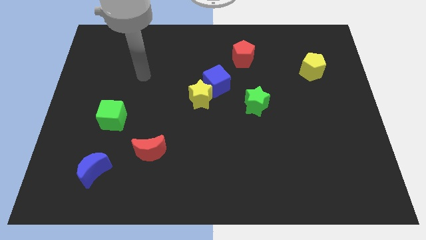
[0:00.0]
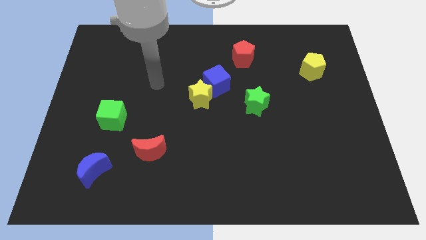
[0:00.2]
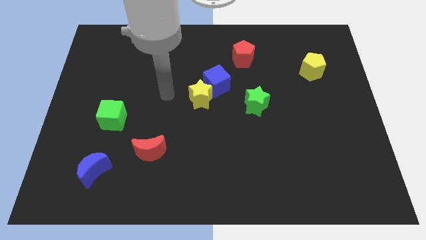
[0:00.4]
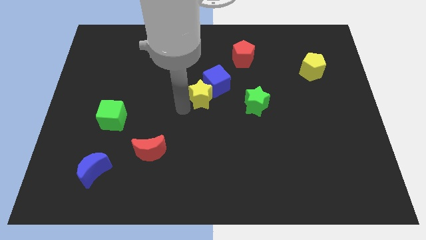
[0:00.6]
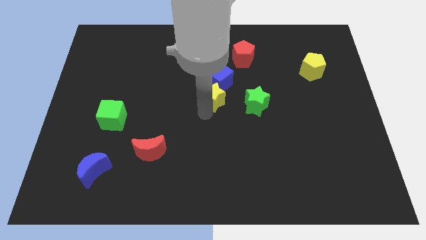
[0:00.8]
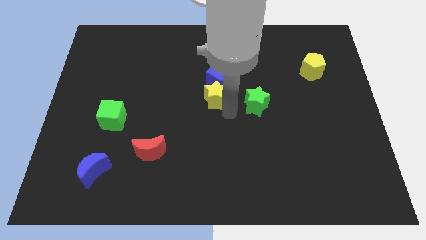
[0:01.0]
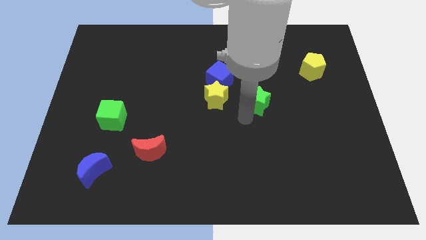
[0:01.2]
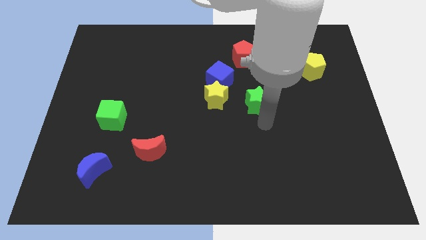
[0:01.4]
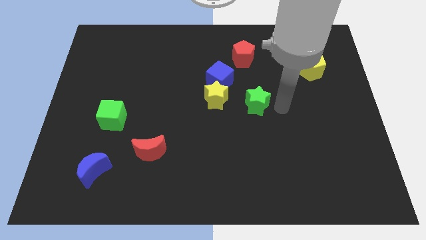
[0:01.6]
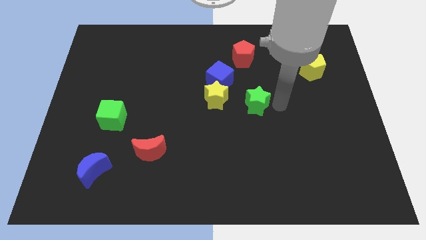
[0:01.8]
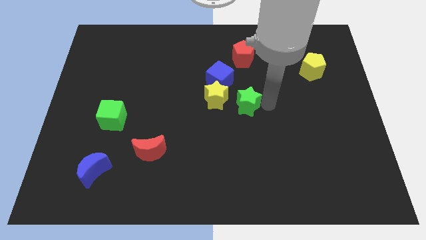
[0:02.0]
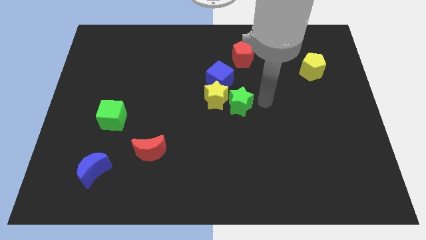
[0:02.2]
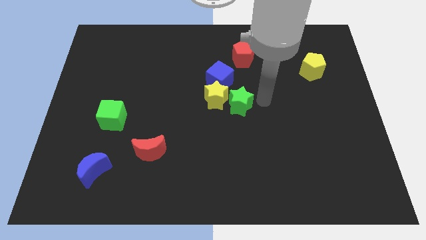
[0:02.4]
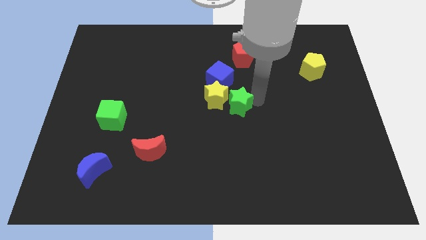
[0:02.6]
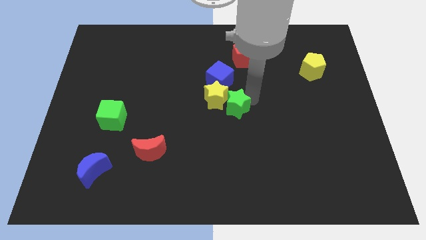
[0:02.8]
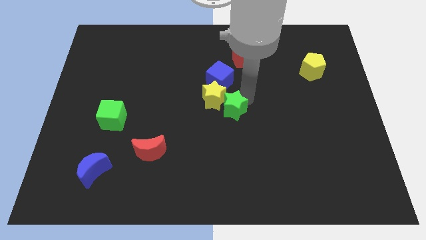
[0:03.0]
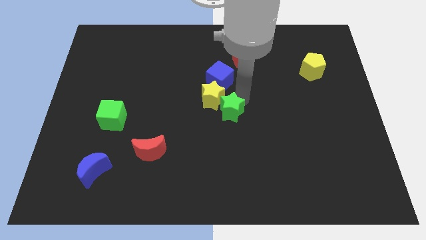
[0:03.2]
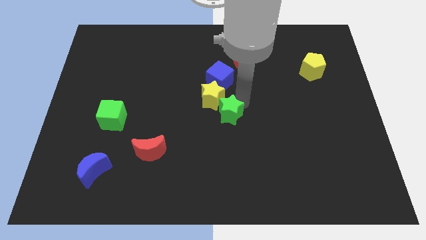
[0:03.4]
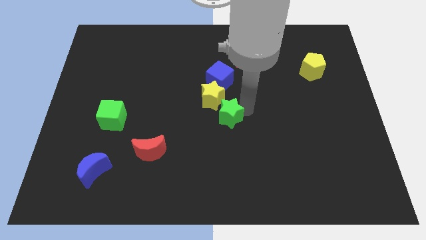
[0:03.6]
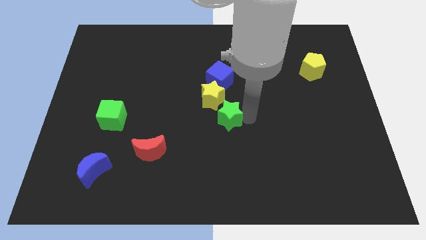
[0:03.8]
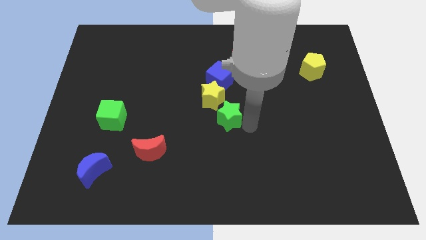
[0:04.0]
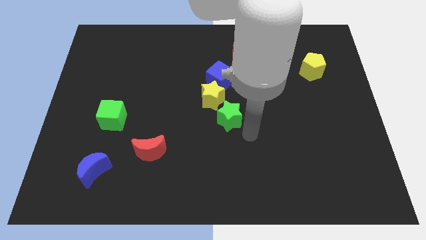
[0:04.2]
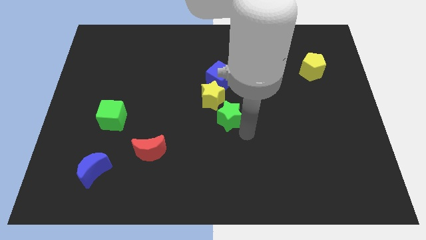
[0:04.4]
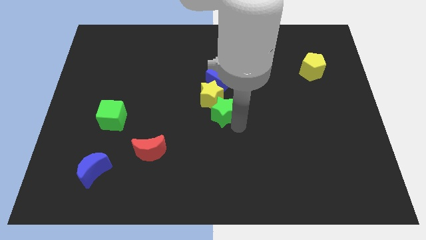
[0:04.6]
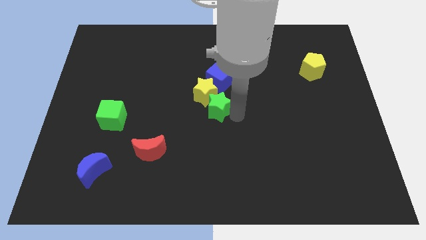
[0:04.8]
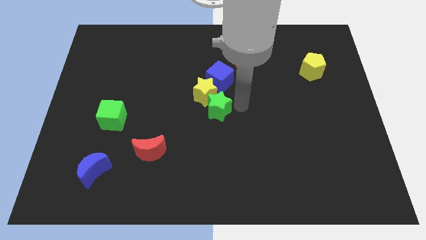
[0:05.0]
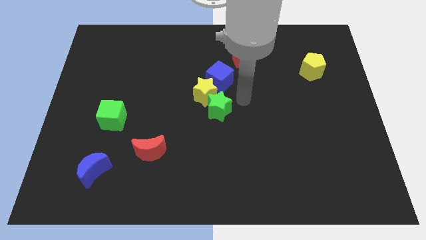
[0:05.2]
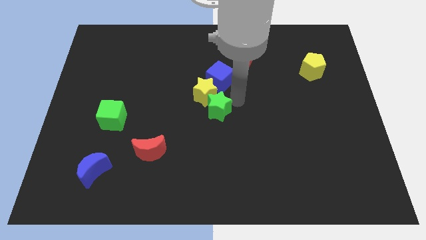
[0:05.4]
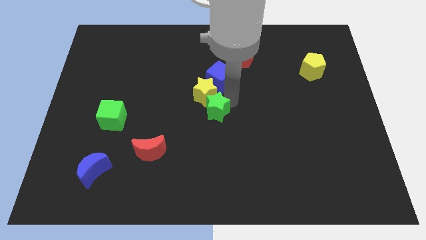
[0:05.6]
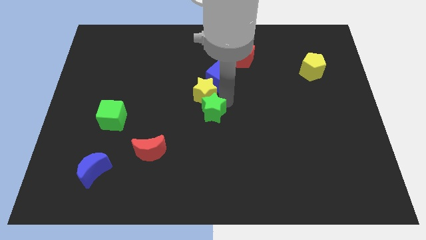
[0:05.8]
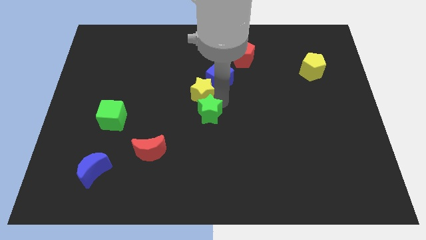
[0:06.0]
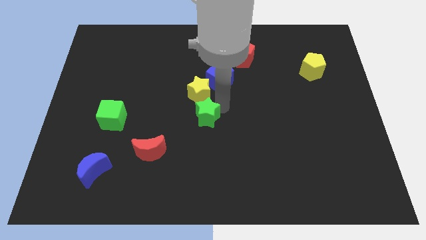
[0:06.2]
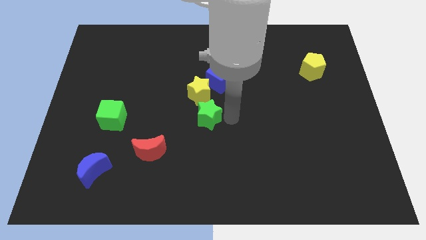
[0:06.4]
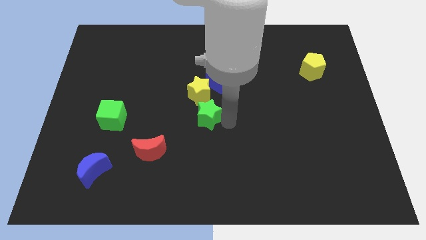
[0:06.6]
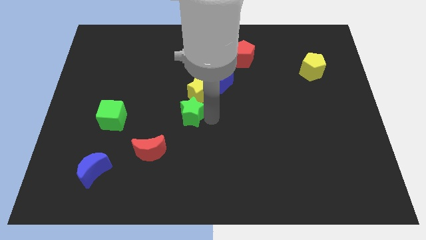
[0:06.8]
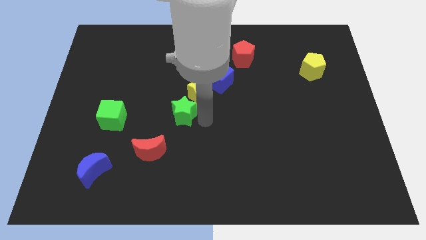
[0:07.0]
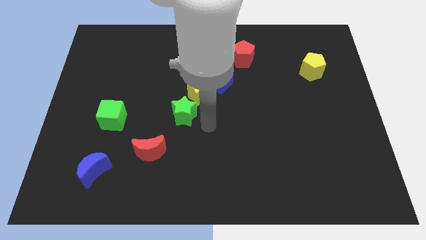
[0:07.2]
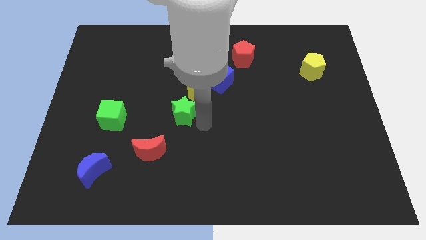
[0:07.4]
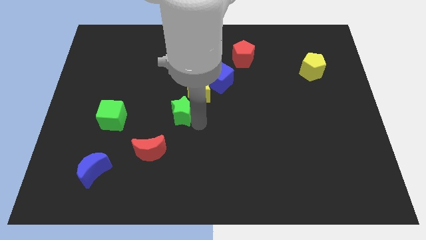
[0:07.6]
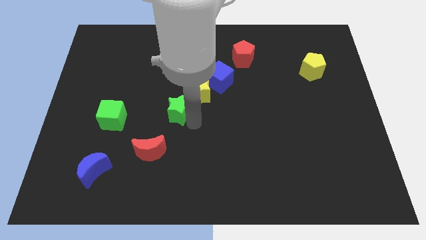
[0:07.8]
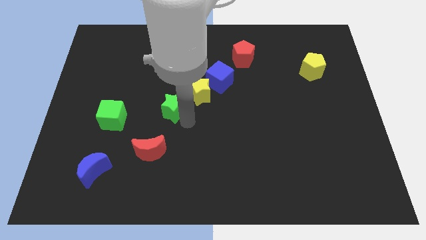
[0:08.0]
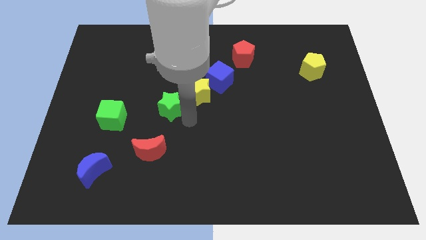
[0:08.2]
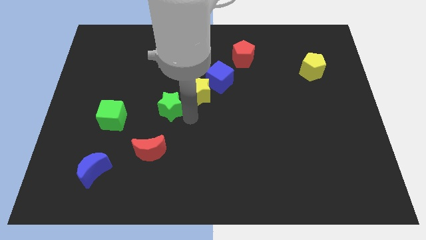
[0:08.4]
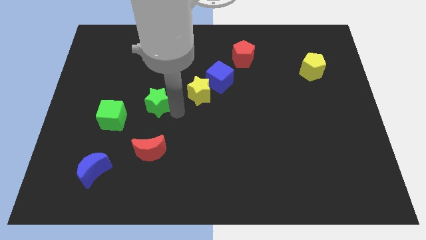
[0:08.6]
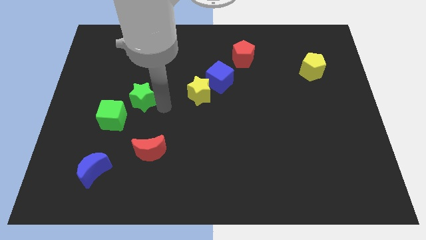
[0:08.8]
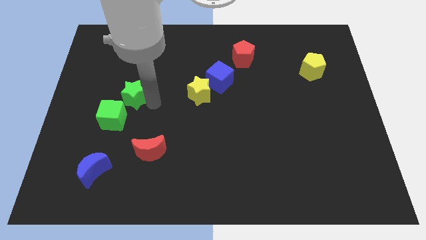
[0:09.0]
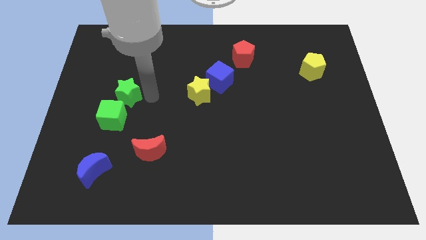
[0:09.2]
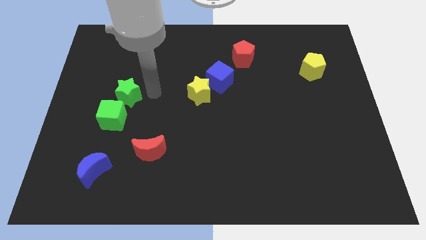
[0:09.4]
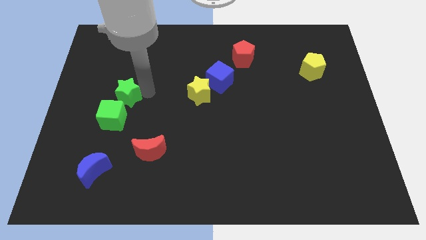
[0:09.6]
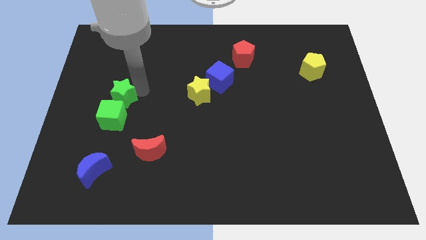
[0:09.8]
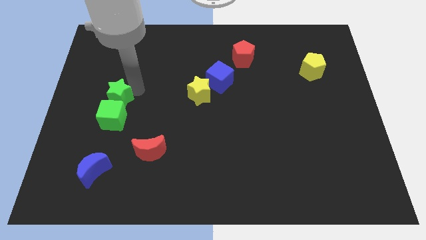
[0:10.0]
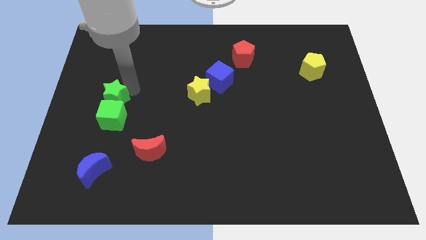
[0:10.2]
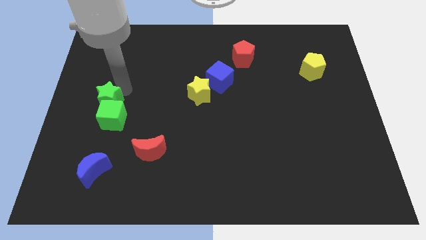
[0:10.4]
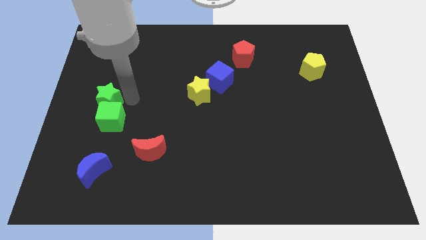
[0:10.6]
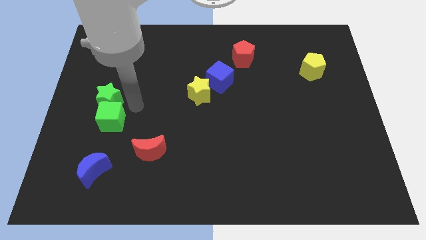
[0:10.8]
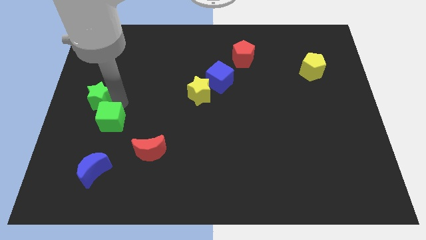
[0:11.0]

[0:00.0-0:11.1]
push the green star to the center left

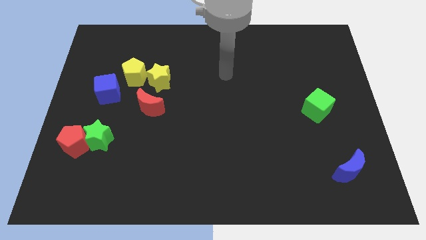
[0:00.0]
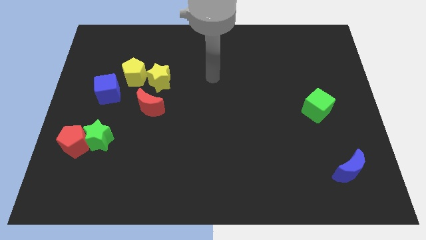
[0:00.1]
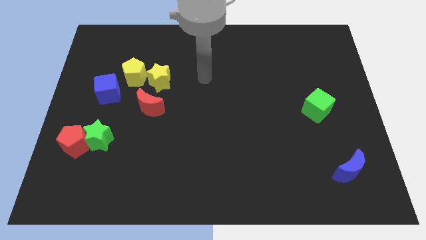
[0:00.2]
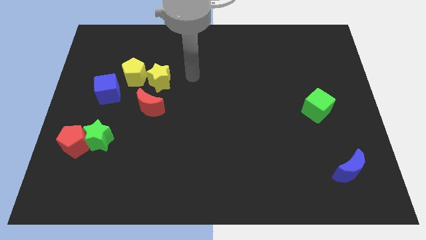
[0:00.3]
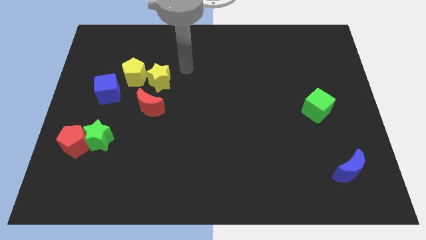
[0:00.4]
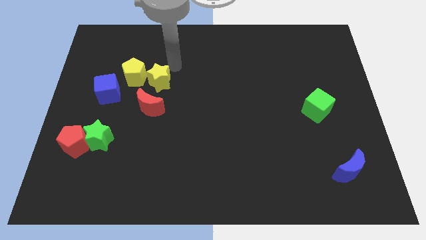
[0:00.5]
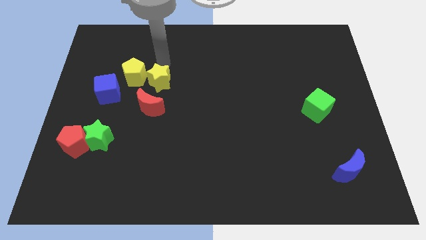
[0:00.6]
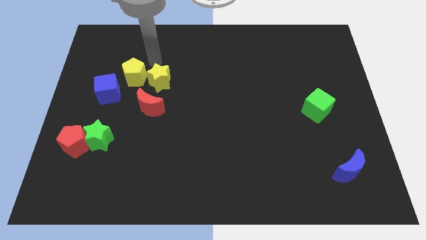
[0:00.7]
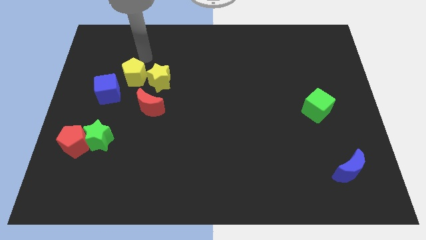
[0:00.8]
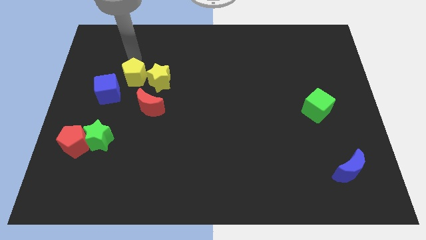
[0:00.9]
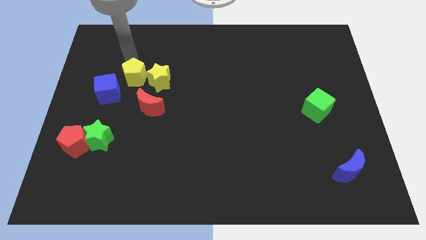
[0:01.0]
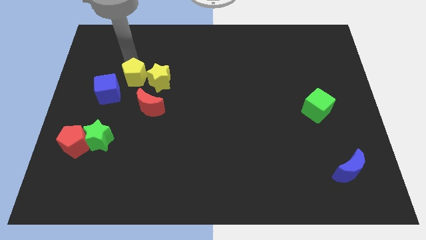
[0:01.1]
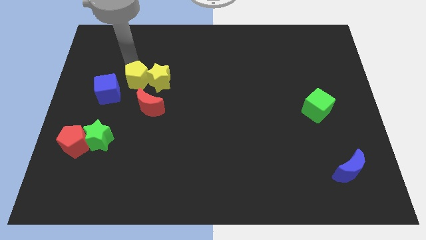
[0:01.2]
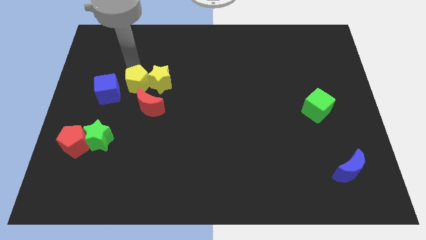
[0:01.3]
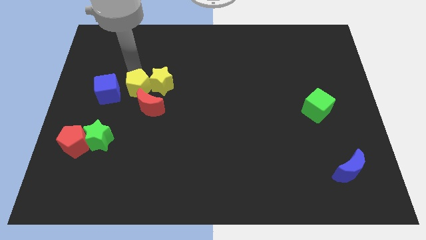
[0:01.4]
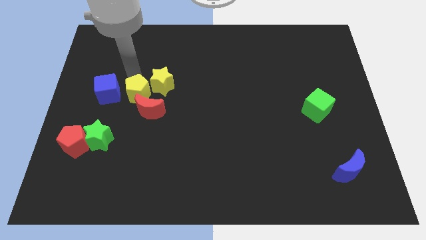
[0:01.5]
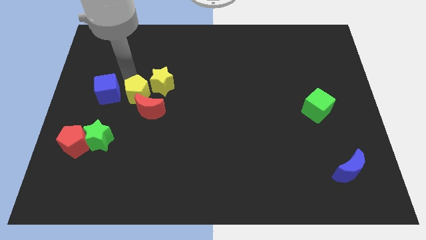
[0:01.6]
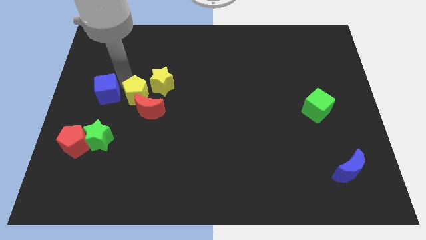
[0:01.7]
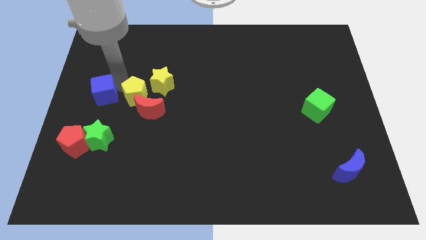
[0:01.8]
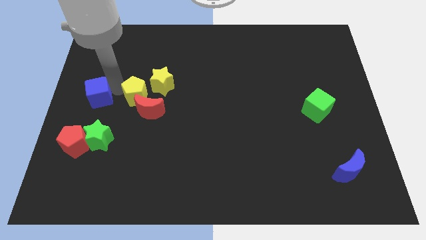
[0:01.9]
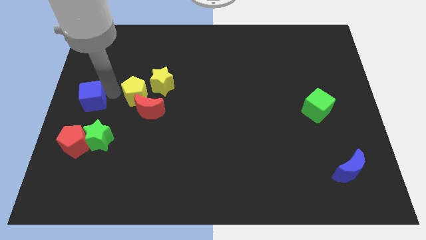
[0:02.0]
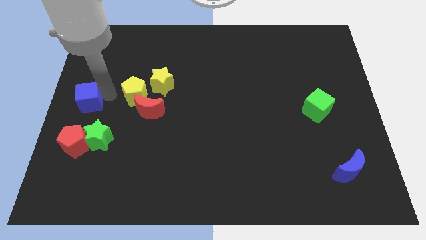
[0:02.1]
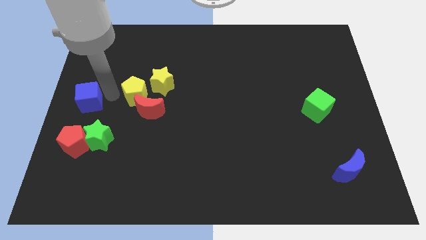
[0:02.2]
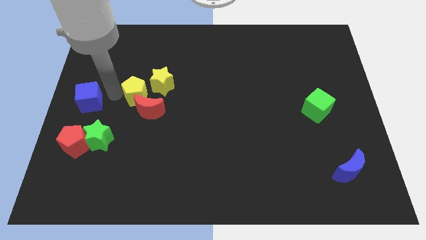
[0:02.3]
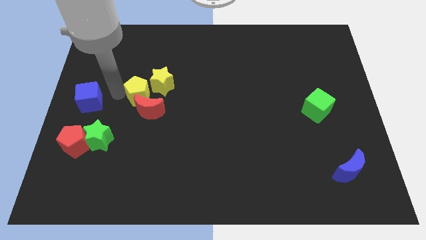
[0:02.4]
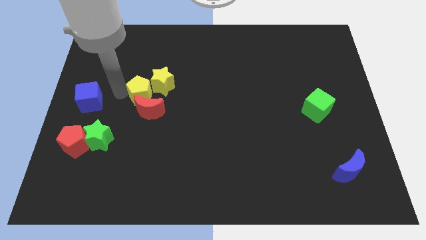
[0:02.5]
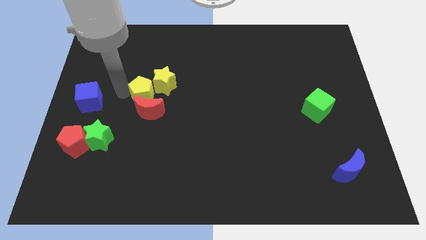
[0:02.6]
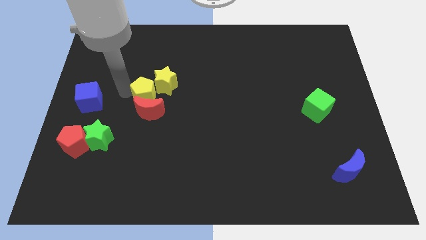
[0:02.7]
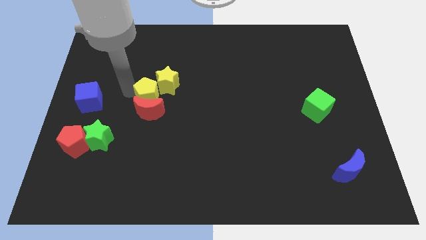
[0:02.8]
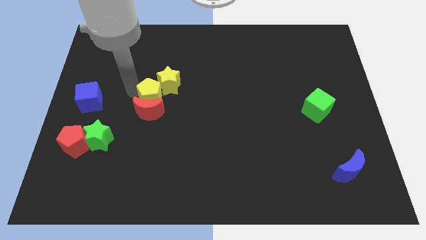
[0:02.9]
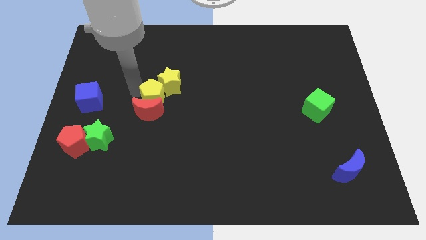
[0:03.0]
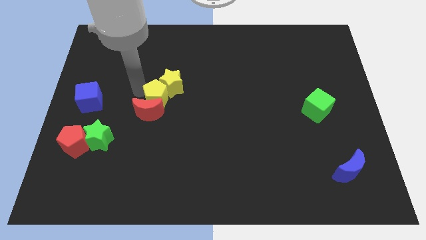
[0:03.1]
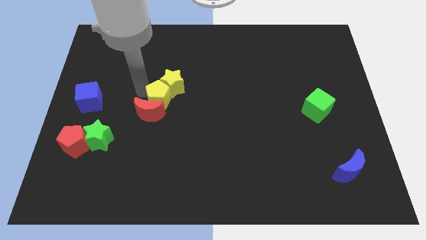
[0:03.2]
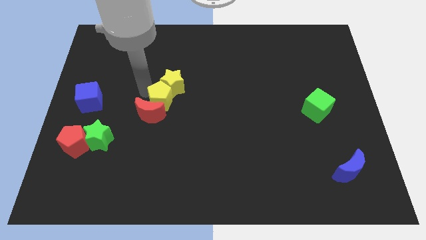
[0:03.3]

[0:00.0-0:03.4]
put the yellow pentagon to the middle
